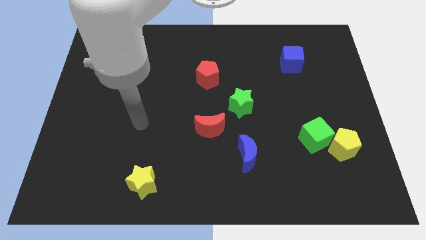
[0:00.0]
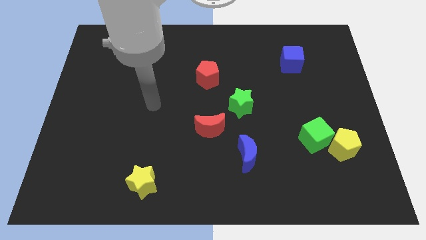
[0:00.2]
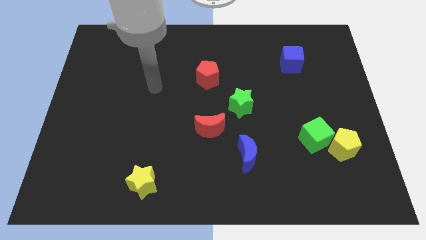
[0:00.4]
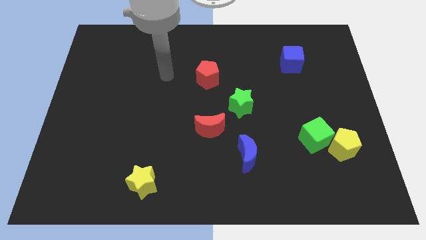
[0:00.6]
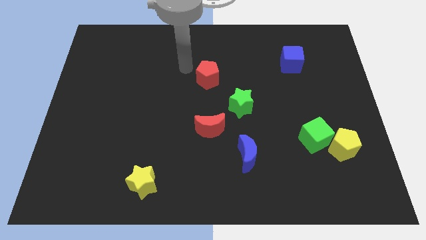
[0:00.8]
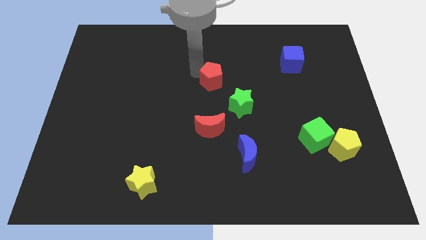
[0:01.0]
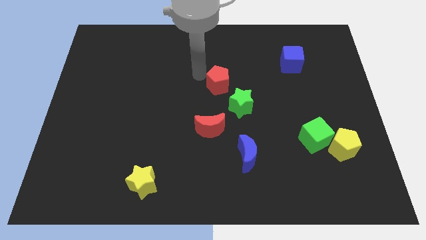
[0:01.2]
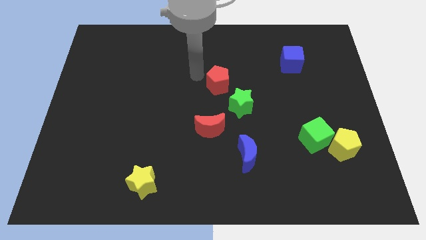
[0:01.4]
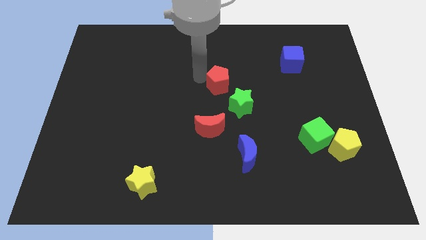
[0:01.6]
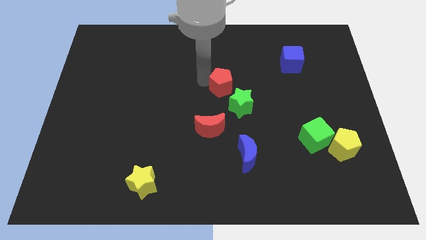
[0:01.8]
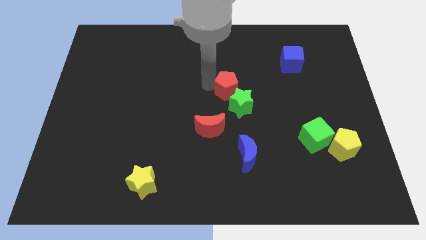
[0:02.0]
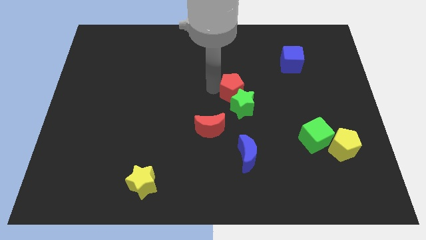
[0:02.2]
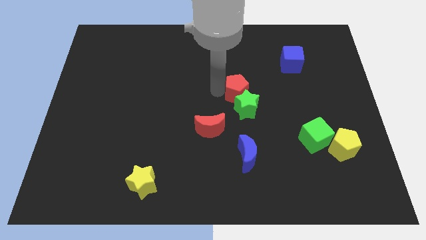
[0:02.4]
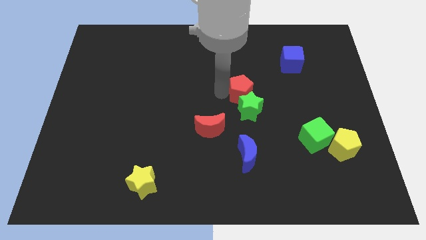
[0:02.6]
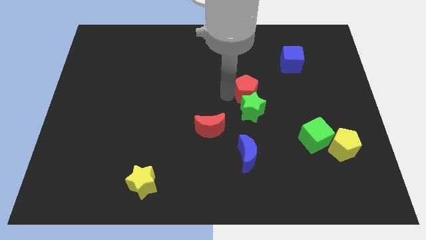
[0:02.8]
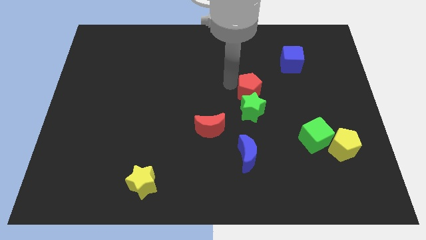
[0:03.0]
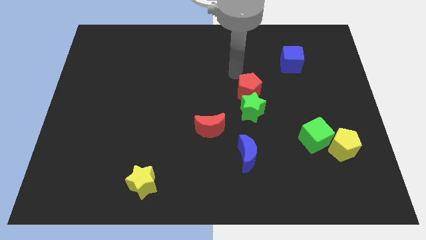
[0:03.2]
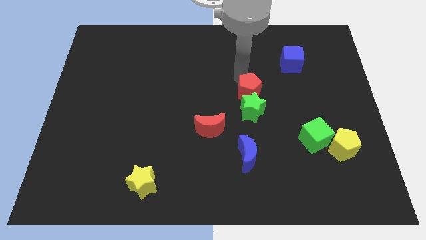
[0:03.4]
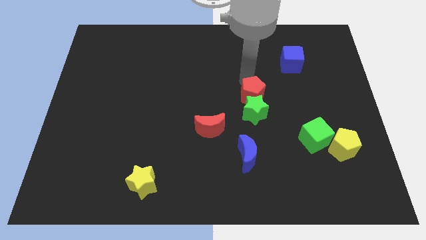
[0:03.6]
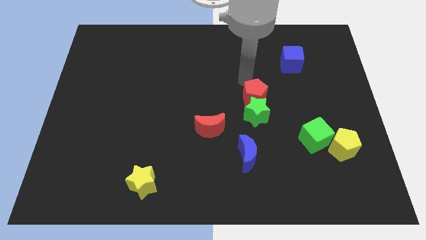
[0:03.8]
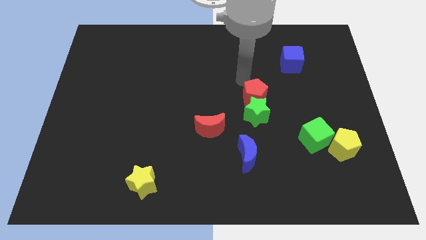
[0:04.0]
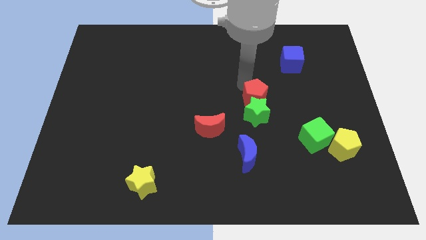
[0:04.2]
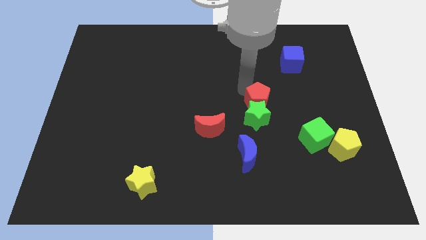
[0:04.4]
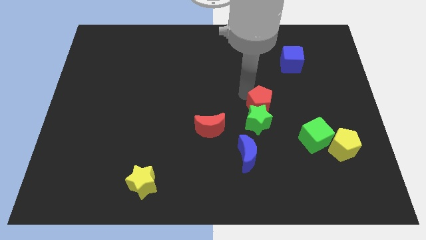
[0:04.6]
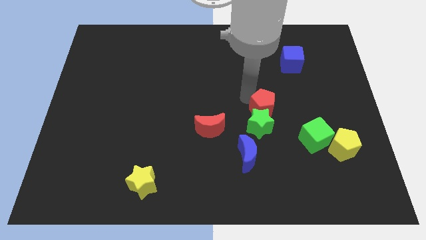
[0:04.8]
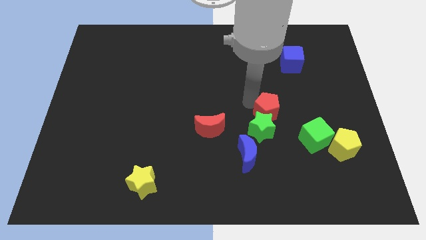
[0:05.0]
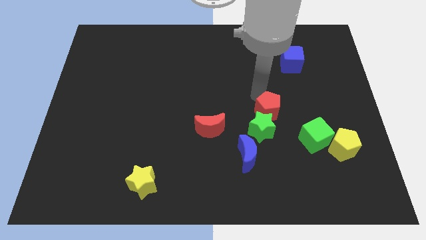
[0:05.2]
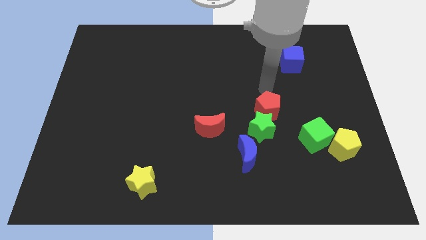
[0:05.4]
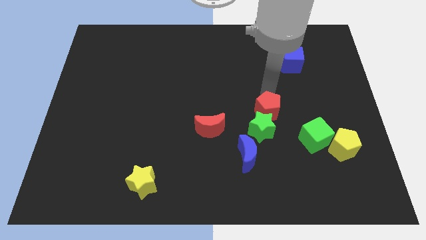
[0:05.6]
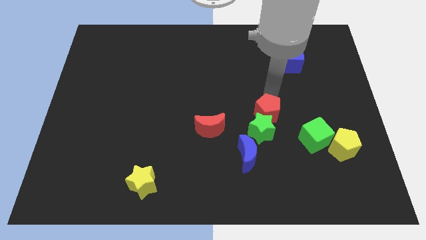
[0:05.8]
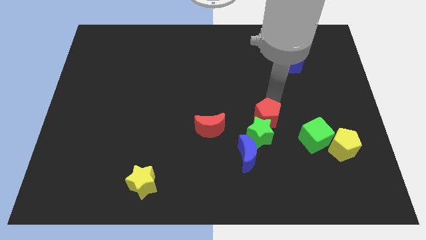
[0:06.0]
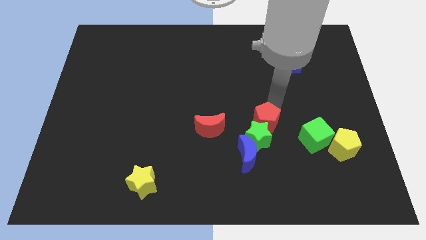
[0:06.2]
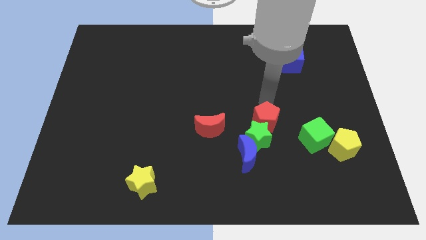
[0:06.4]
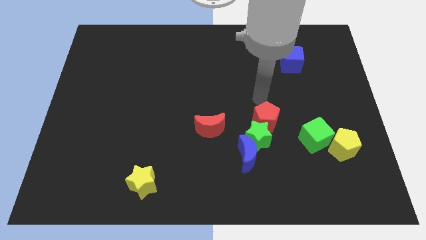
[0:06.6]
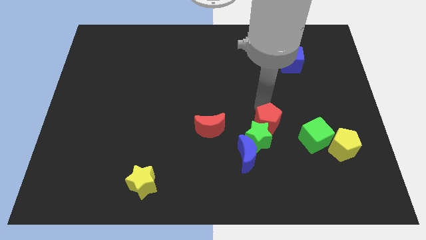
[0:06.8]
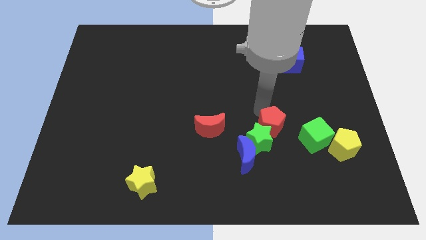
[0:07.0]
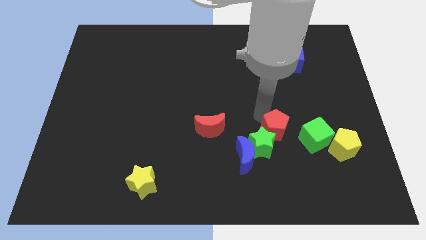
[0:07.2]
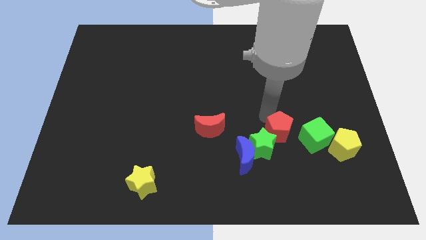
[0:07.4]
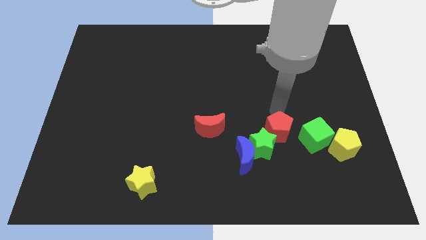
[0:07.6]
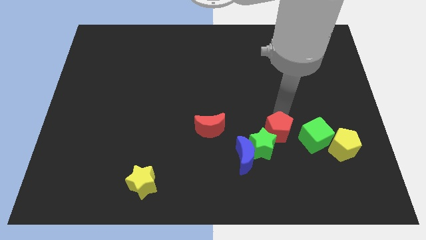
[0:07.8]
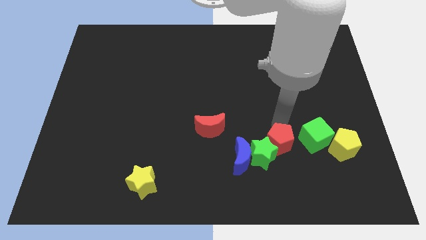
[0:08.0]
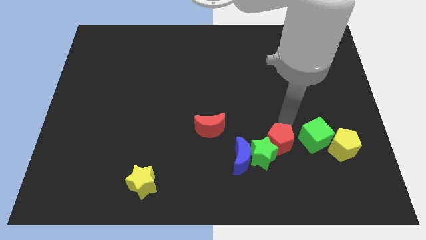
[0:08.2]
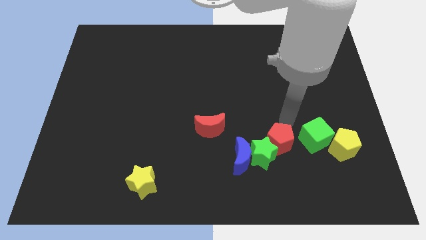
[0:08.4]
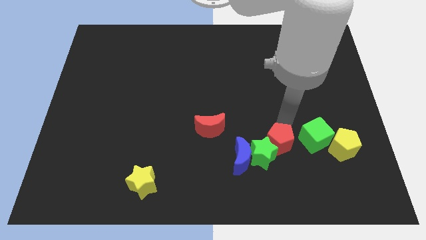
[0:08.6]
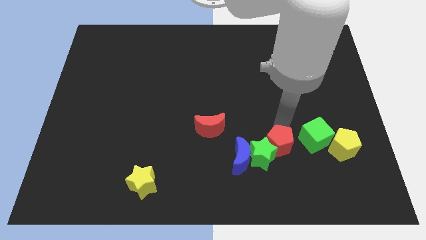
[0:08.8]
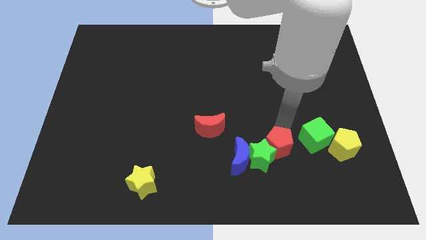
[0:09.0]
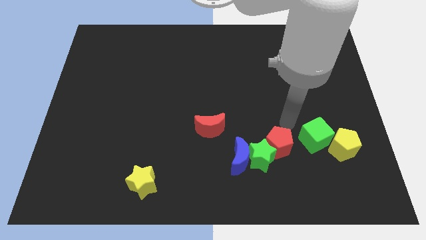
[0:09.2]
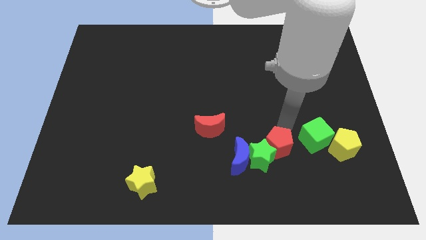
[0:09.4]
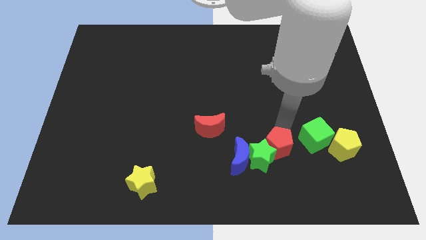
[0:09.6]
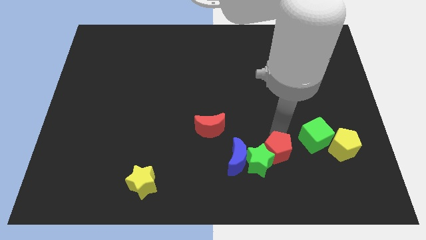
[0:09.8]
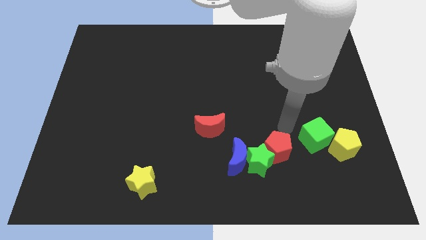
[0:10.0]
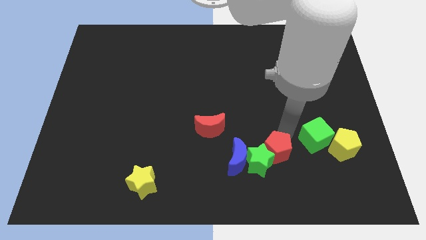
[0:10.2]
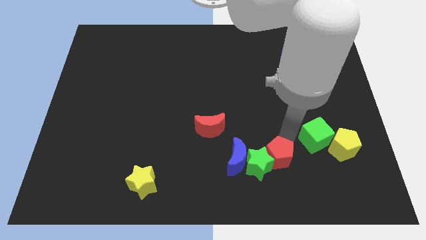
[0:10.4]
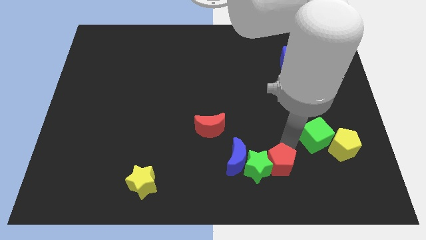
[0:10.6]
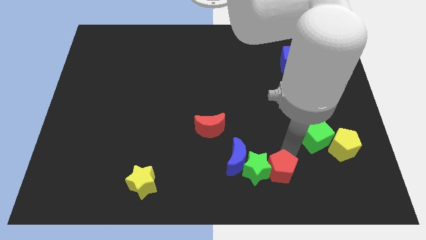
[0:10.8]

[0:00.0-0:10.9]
slide the red pentagon to the bottom right of the blue moon

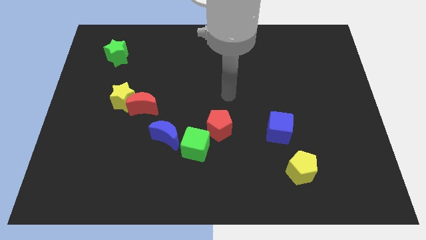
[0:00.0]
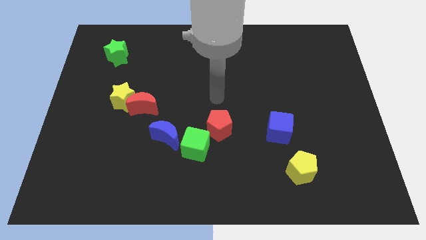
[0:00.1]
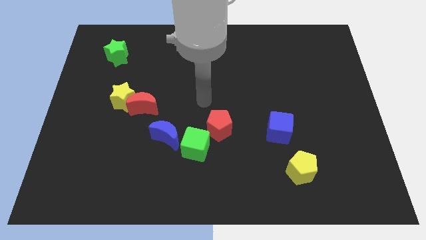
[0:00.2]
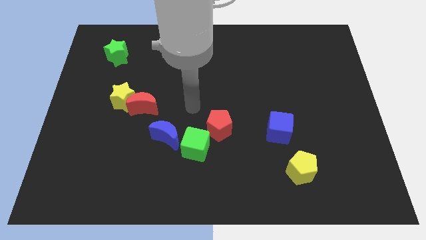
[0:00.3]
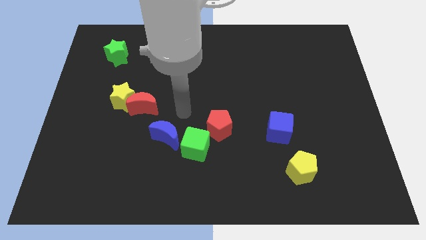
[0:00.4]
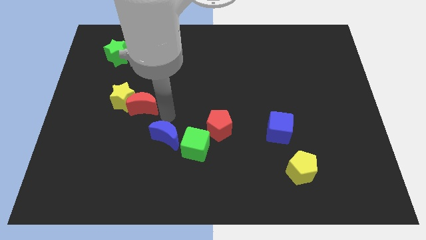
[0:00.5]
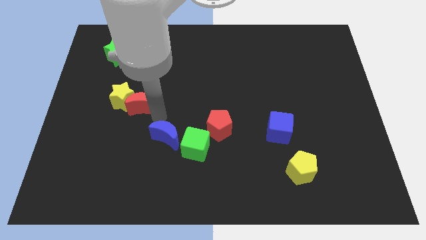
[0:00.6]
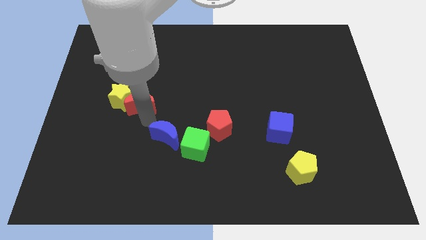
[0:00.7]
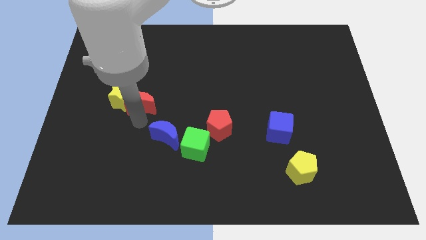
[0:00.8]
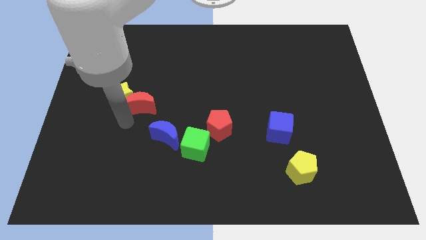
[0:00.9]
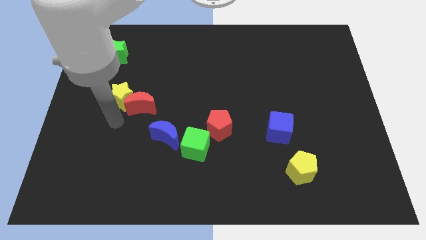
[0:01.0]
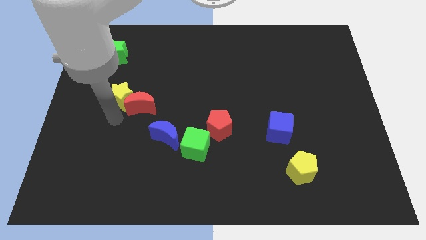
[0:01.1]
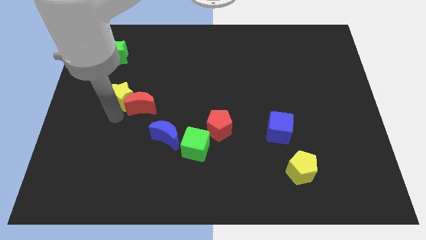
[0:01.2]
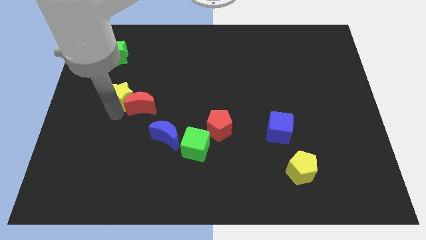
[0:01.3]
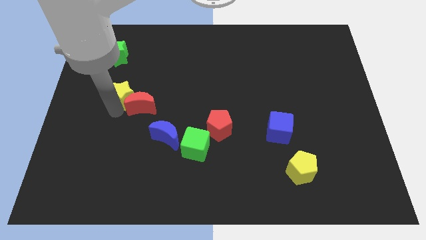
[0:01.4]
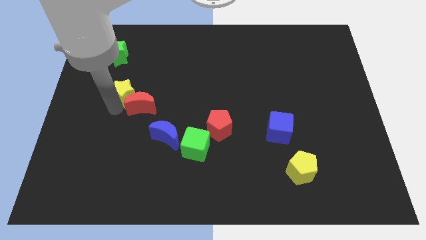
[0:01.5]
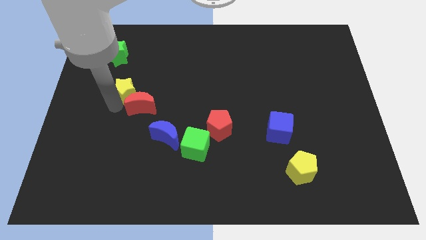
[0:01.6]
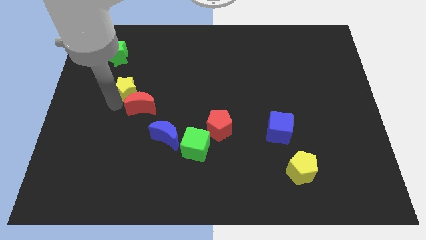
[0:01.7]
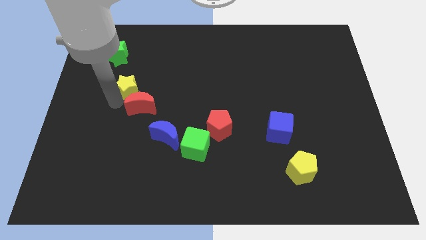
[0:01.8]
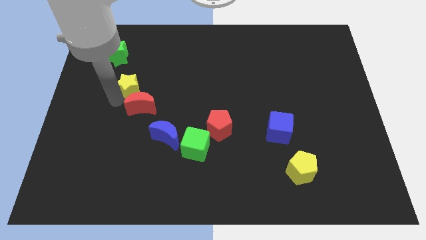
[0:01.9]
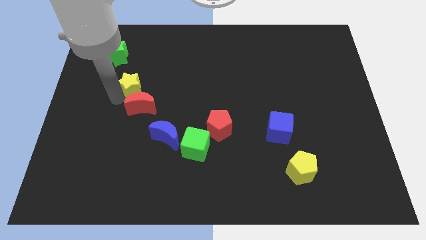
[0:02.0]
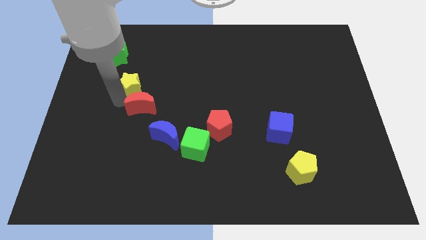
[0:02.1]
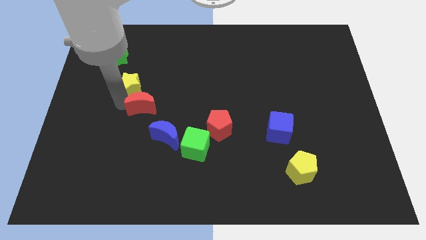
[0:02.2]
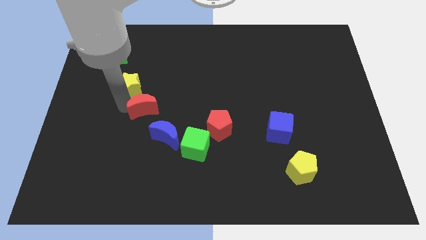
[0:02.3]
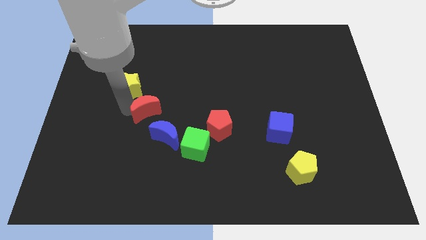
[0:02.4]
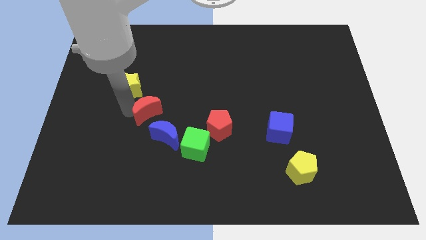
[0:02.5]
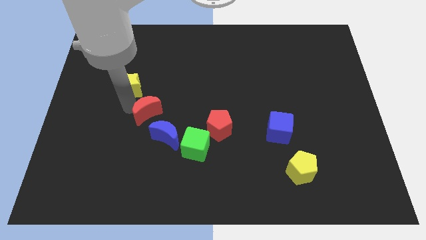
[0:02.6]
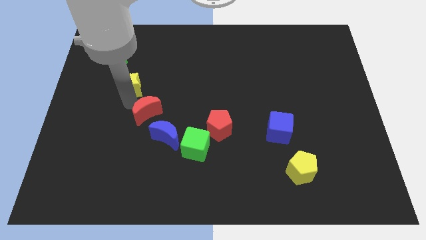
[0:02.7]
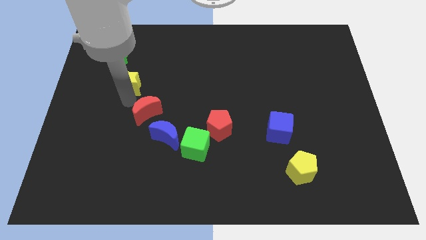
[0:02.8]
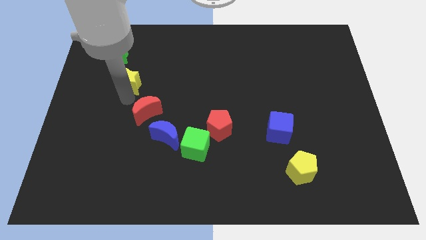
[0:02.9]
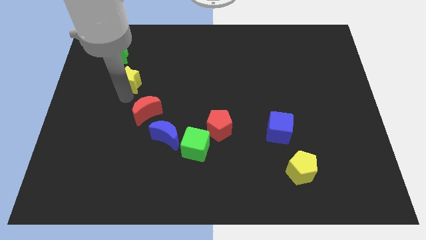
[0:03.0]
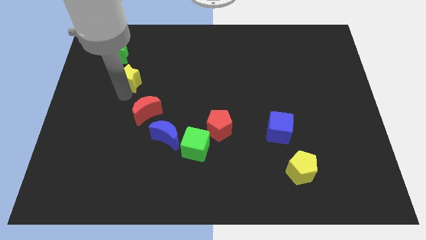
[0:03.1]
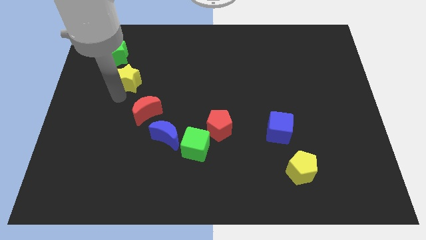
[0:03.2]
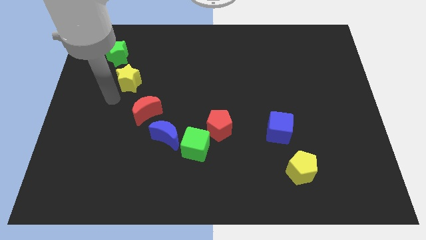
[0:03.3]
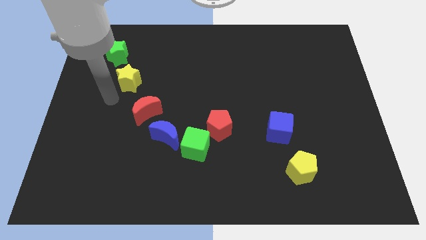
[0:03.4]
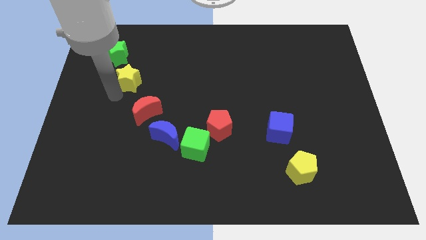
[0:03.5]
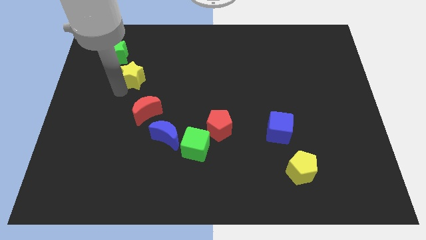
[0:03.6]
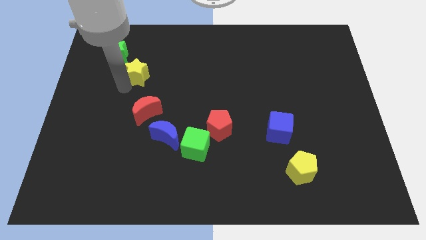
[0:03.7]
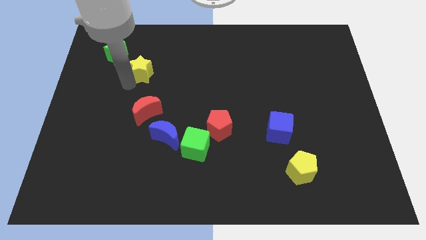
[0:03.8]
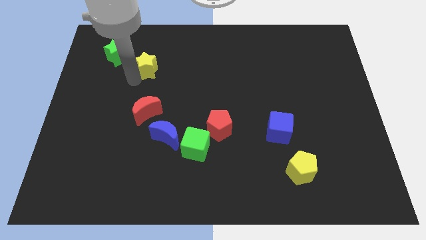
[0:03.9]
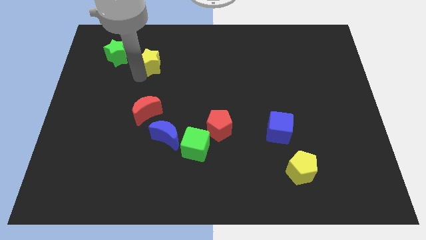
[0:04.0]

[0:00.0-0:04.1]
put the yellow star to the right of the green star
